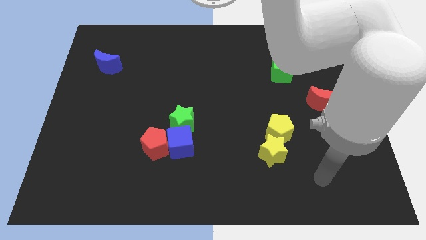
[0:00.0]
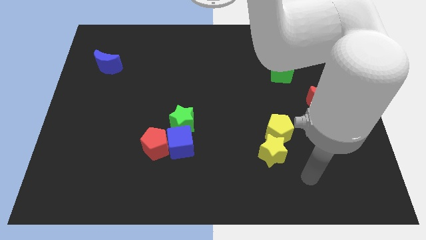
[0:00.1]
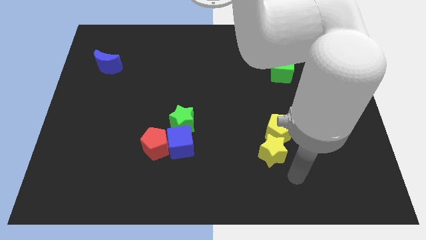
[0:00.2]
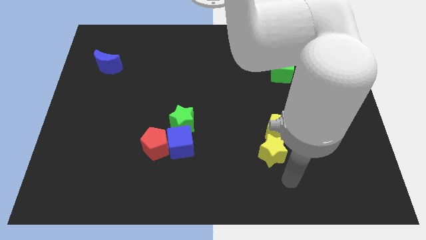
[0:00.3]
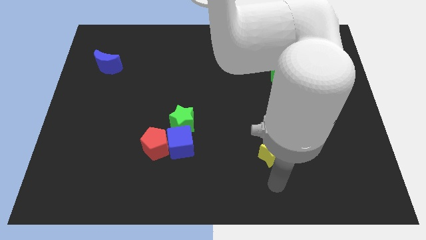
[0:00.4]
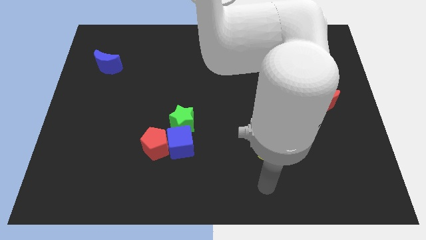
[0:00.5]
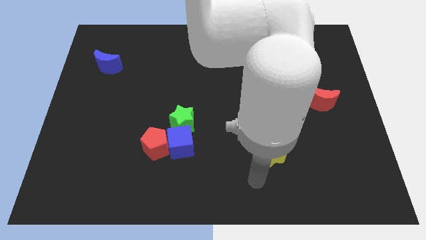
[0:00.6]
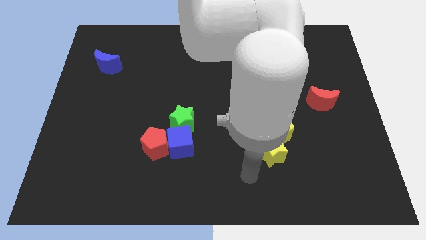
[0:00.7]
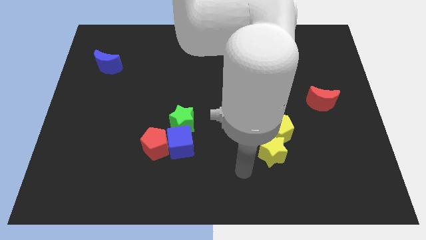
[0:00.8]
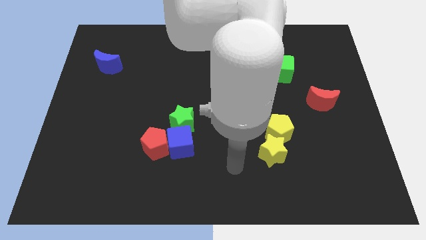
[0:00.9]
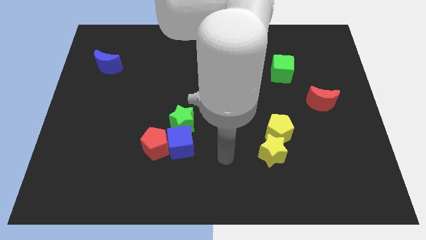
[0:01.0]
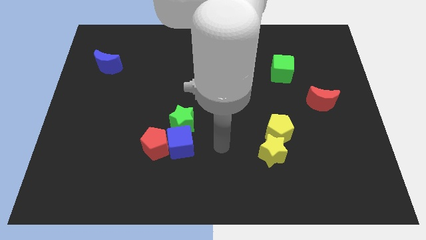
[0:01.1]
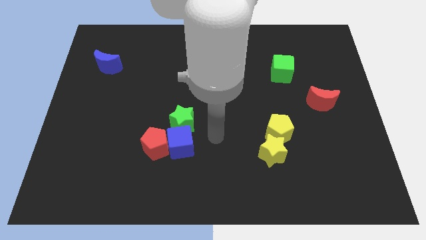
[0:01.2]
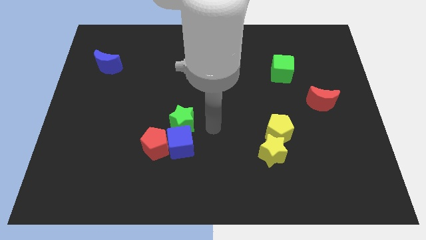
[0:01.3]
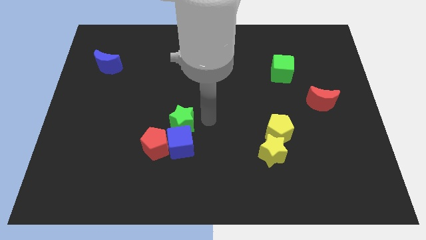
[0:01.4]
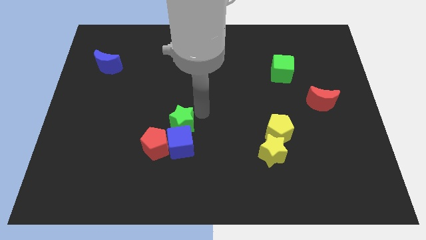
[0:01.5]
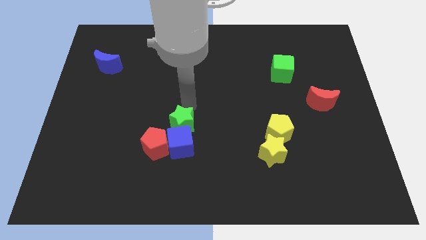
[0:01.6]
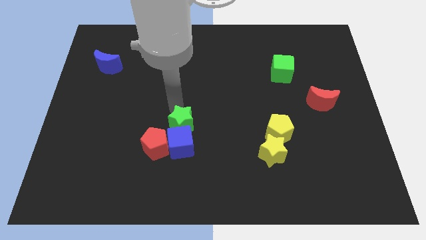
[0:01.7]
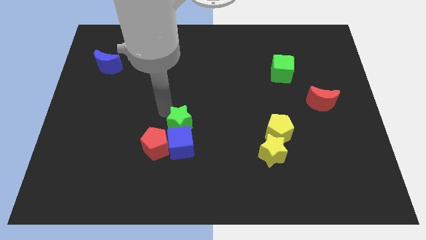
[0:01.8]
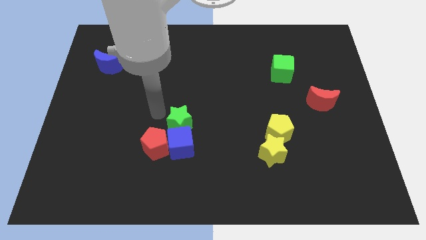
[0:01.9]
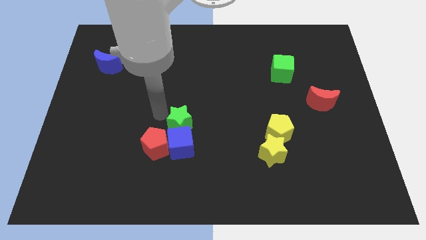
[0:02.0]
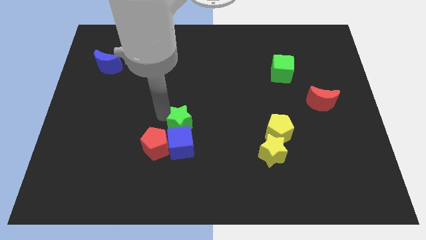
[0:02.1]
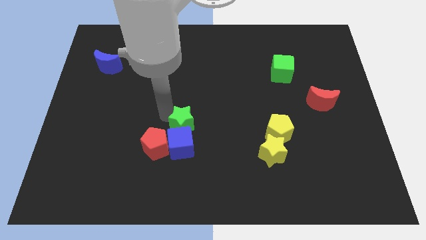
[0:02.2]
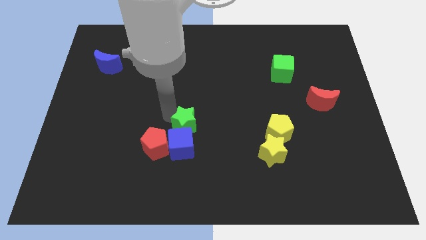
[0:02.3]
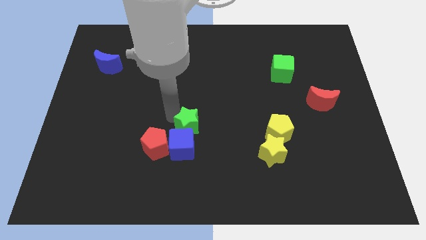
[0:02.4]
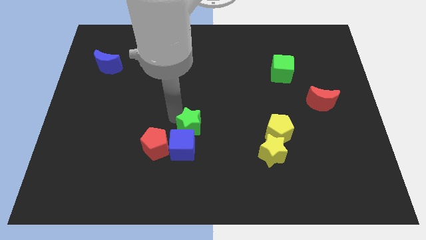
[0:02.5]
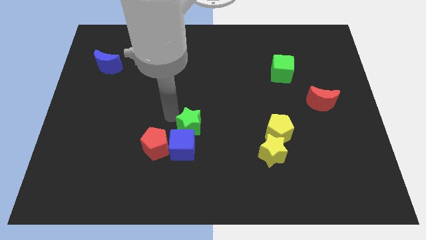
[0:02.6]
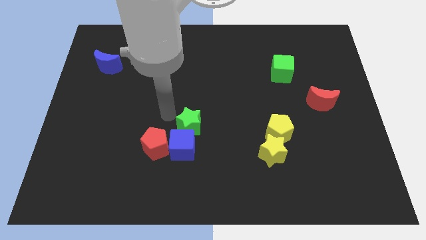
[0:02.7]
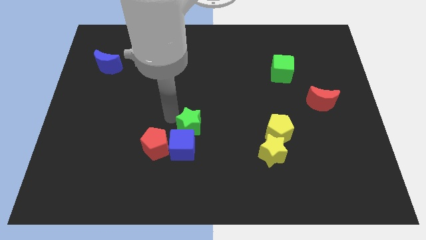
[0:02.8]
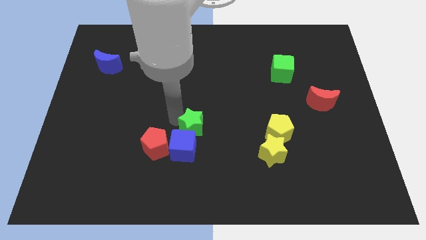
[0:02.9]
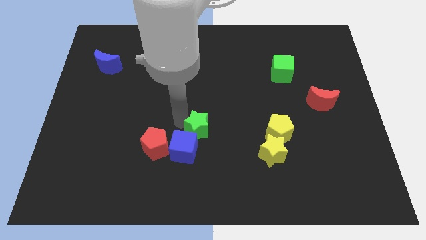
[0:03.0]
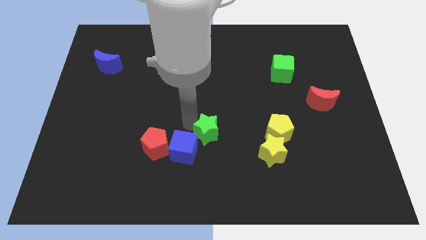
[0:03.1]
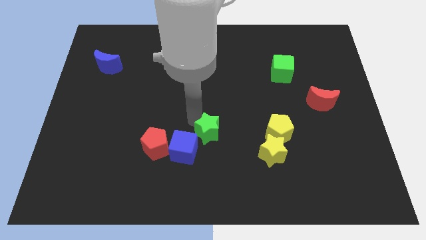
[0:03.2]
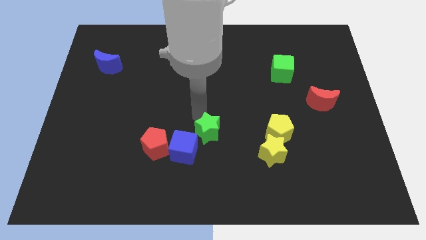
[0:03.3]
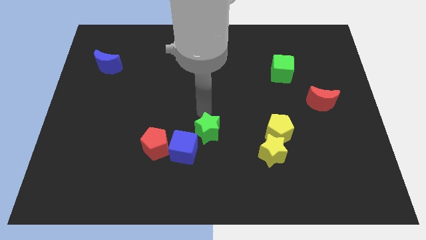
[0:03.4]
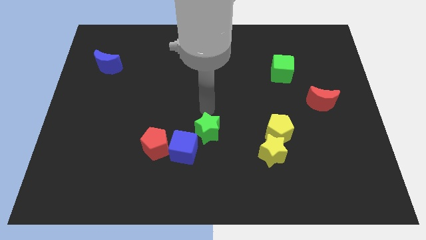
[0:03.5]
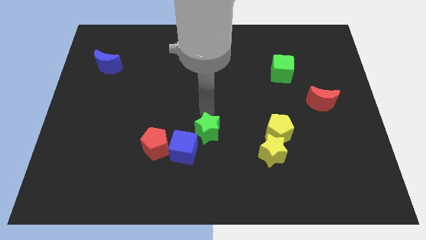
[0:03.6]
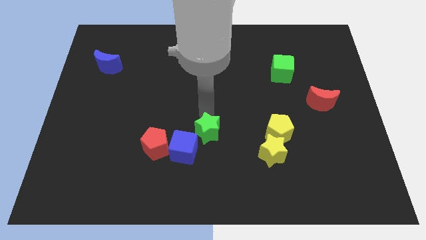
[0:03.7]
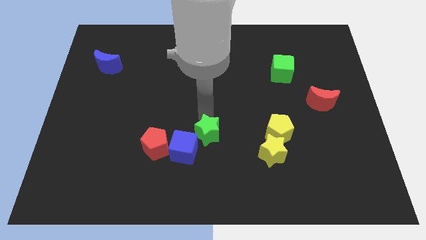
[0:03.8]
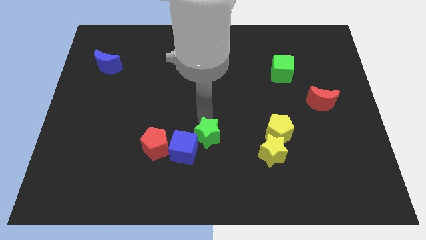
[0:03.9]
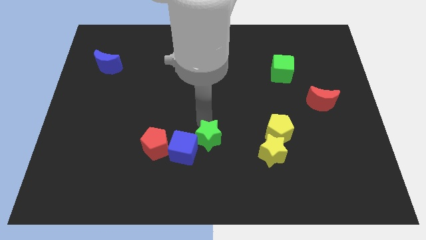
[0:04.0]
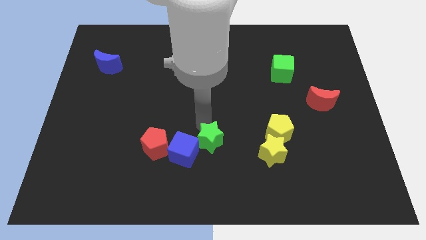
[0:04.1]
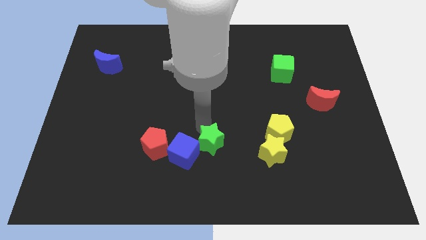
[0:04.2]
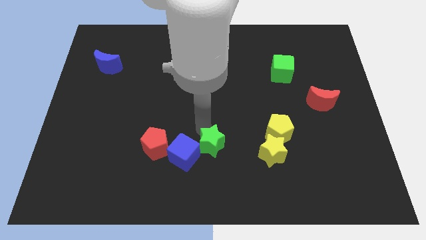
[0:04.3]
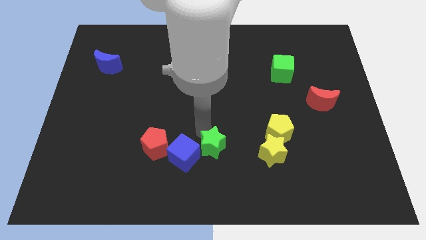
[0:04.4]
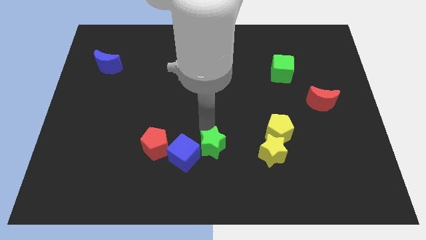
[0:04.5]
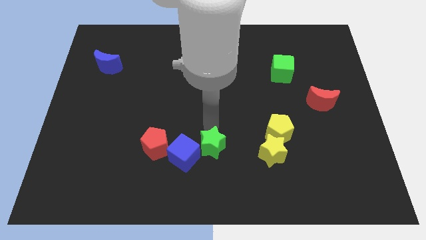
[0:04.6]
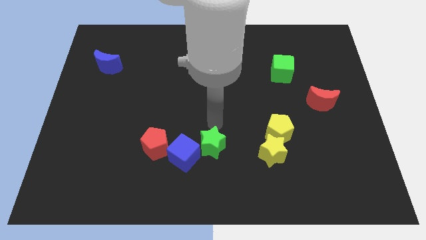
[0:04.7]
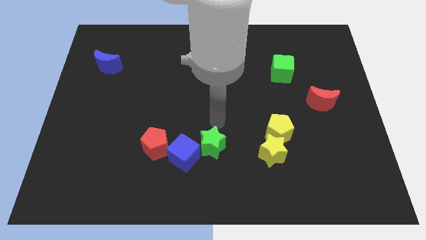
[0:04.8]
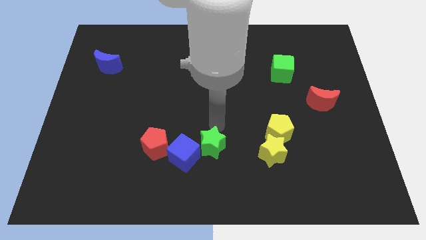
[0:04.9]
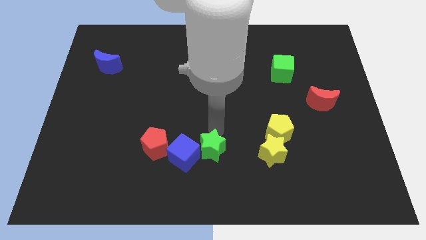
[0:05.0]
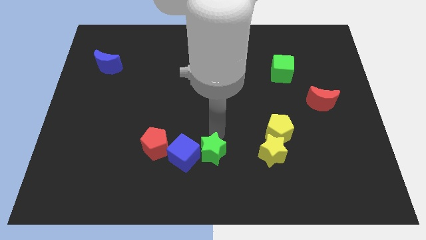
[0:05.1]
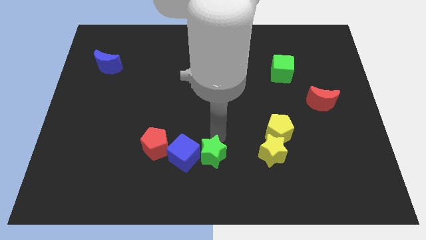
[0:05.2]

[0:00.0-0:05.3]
push the green star to the bottom
